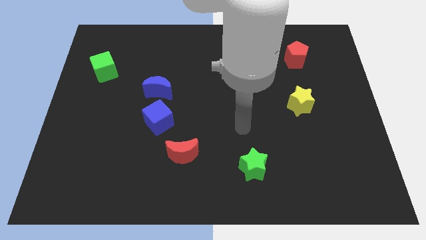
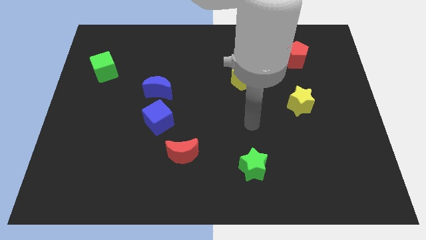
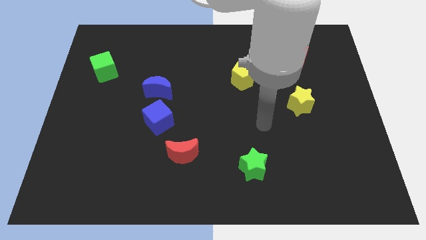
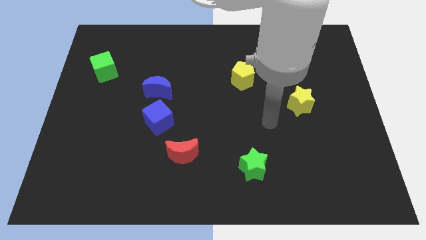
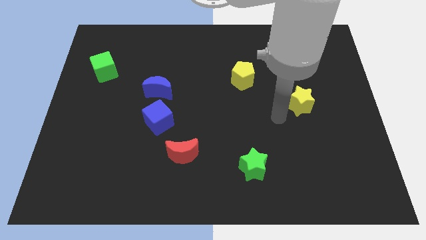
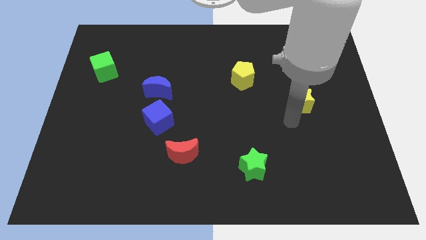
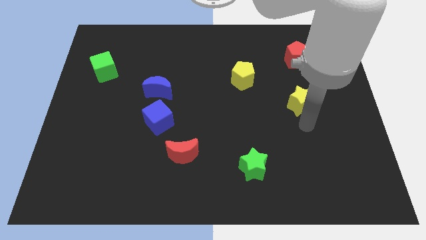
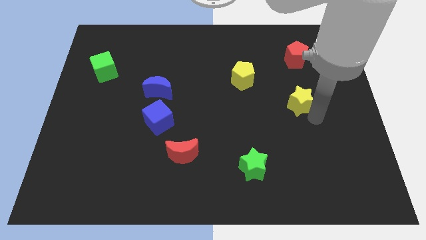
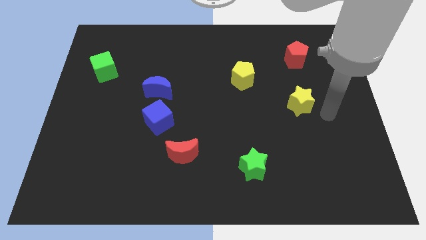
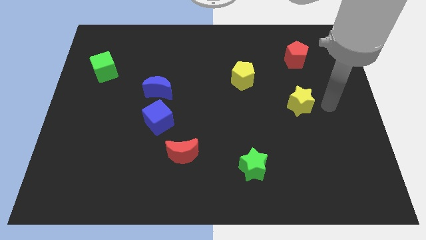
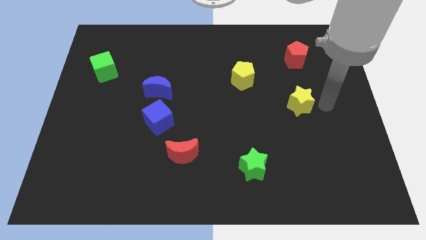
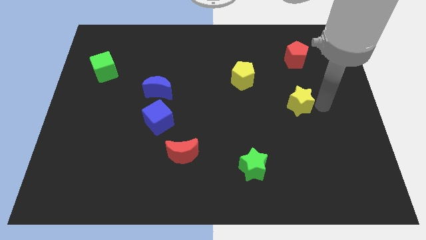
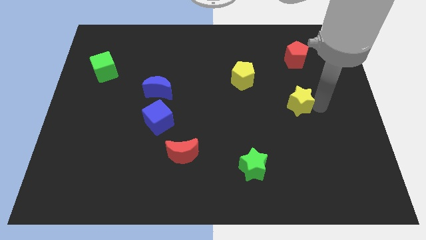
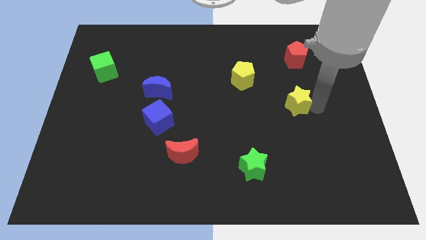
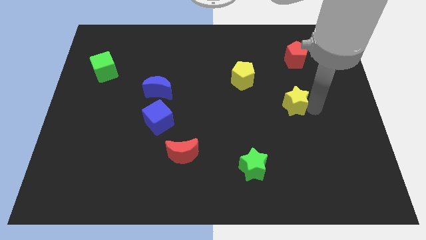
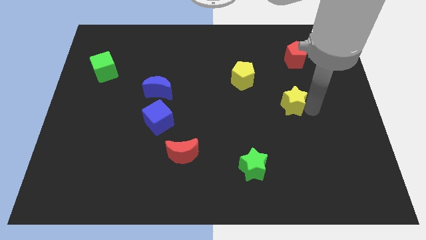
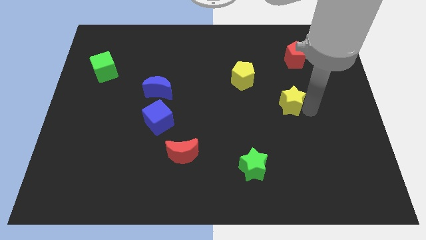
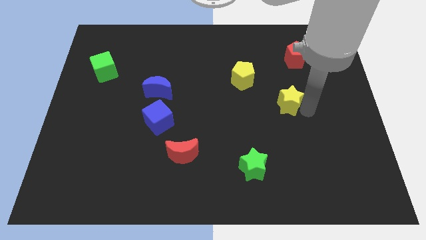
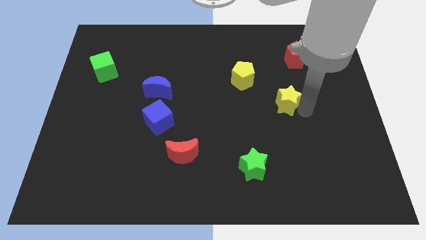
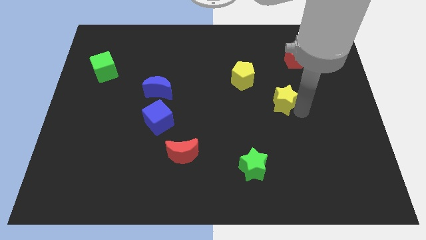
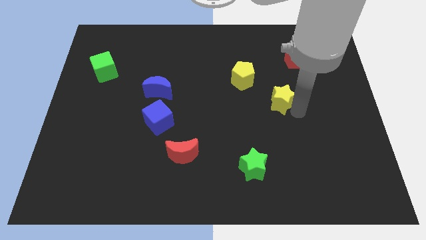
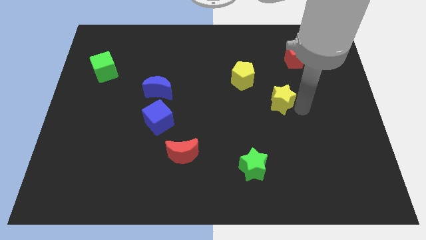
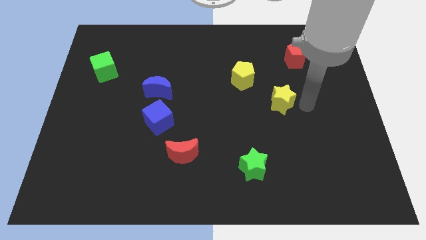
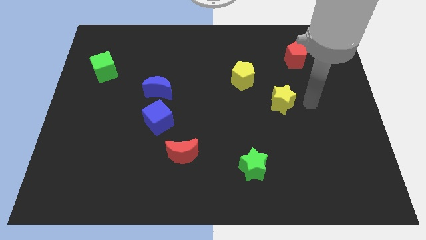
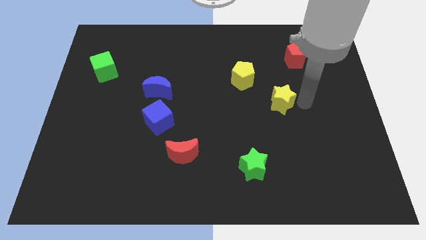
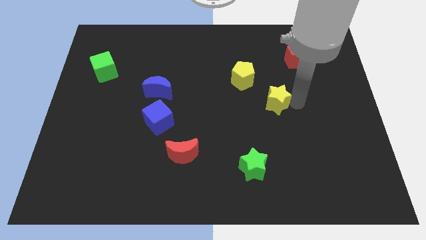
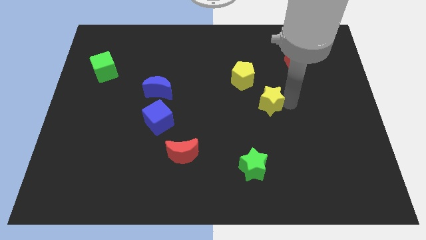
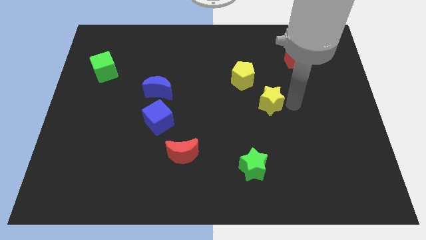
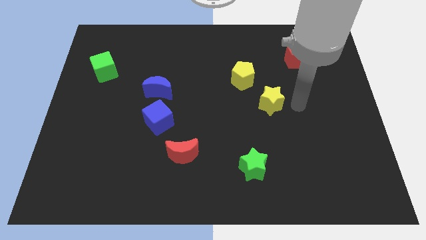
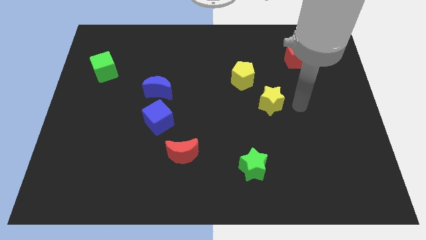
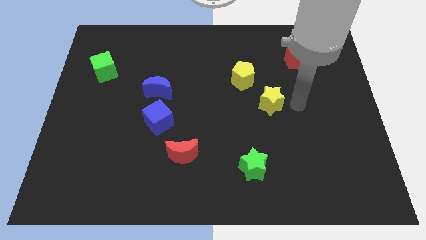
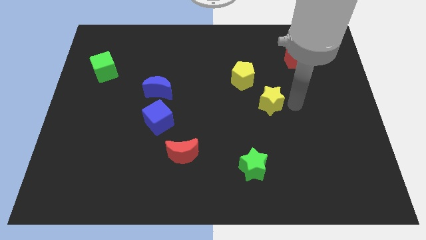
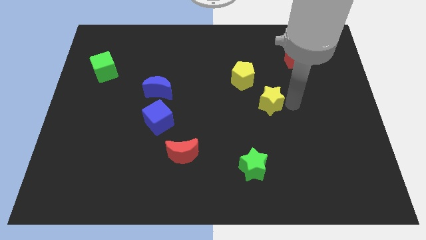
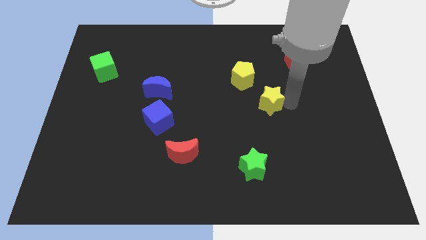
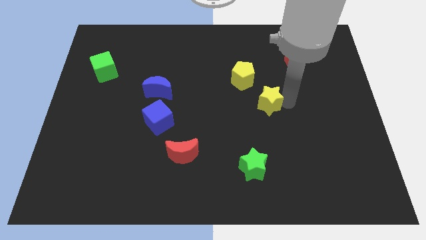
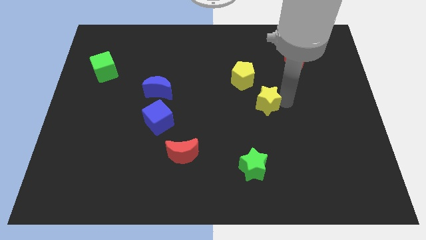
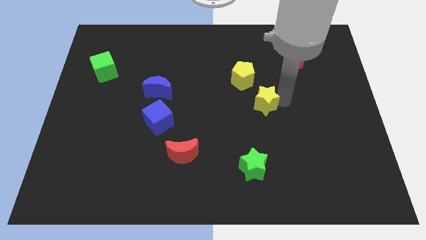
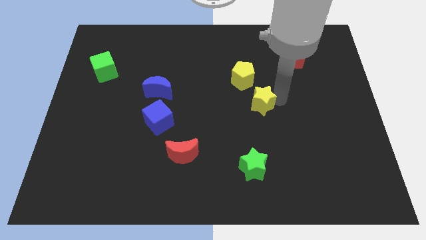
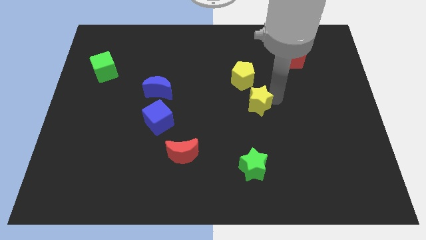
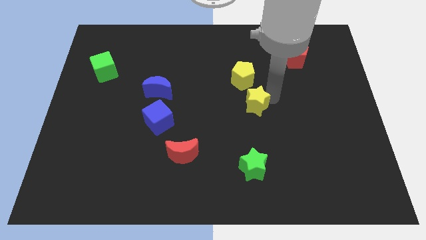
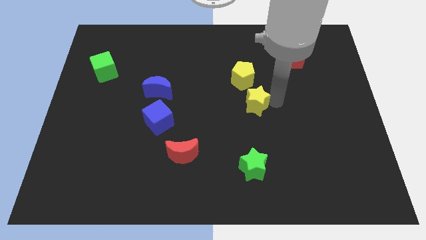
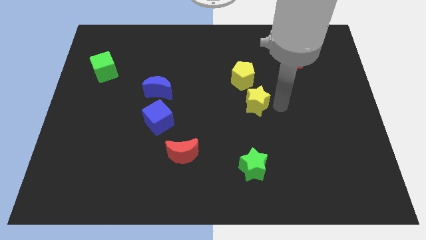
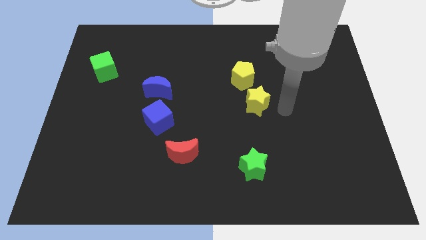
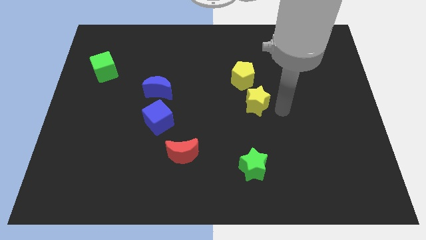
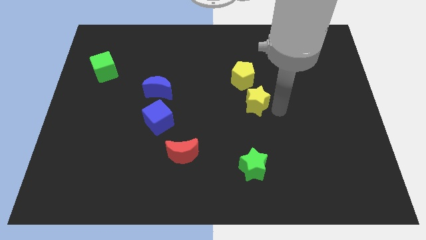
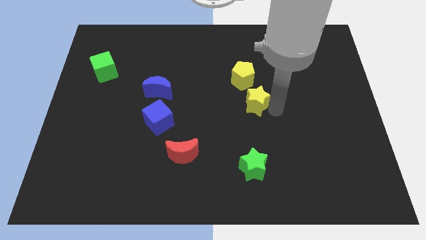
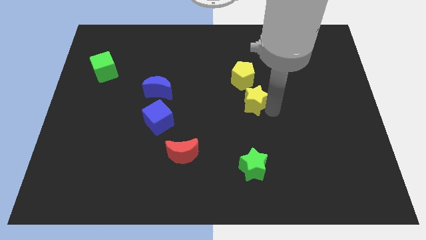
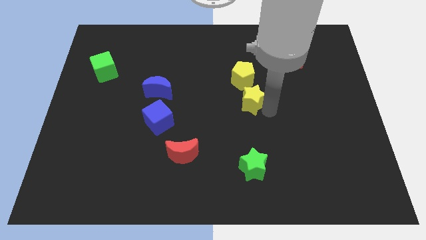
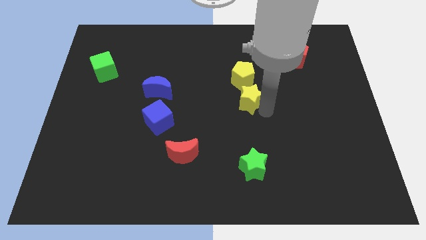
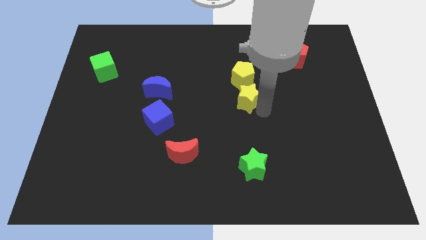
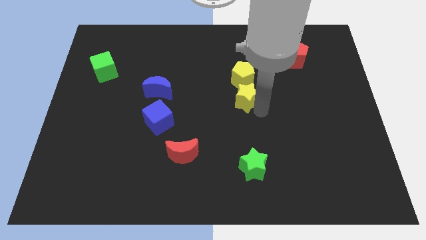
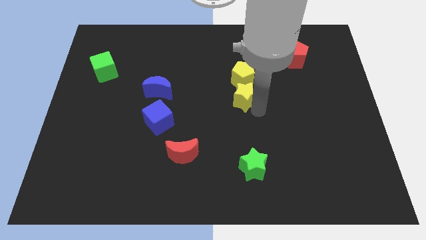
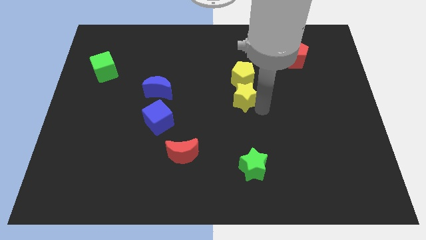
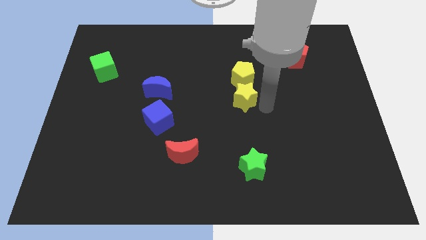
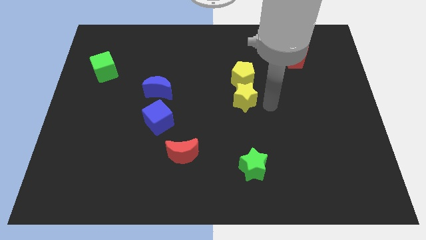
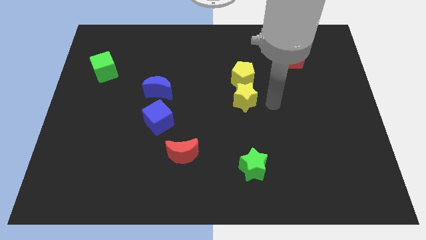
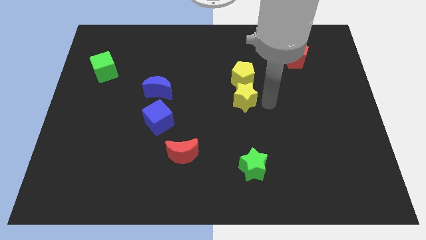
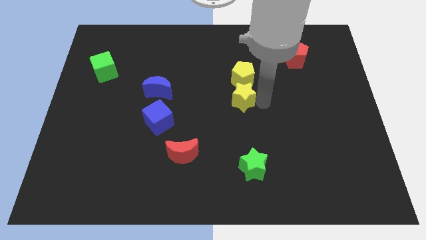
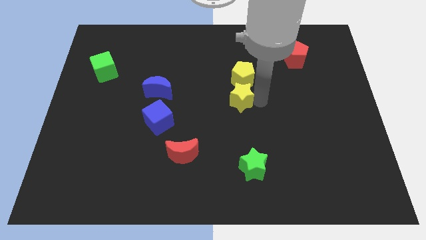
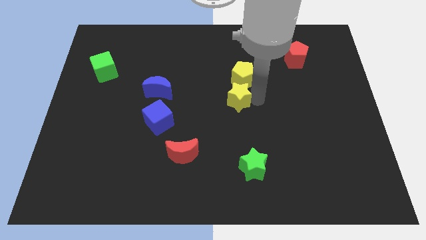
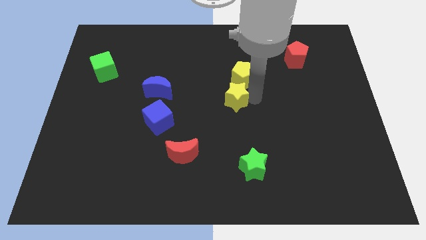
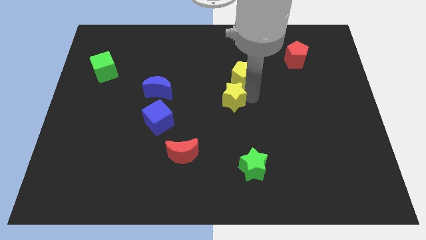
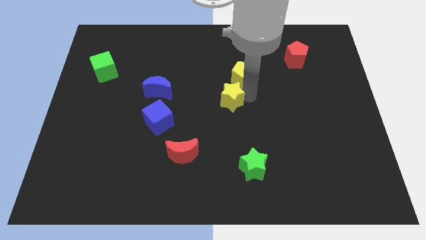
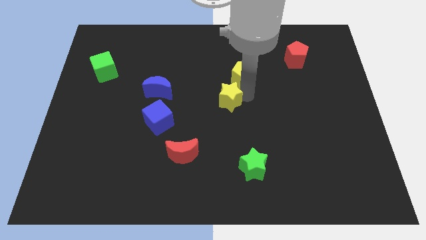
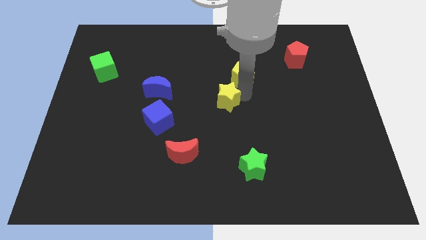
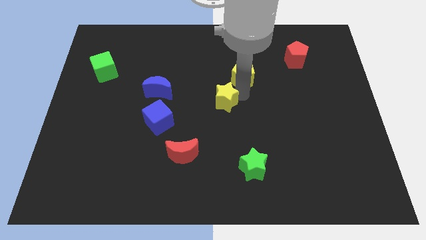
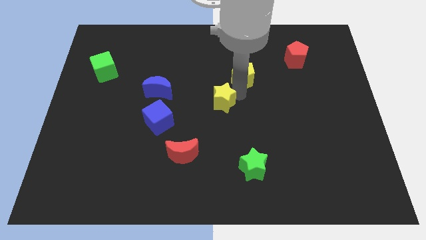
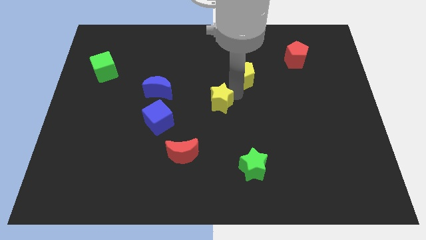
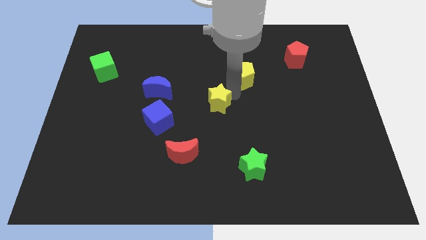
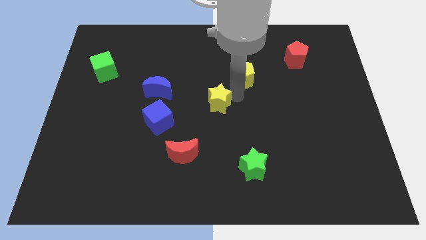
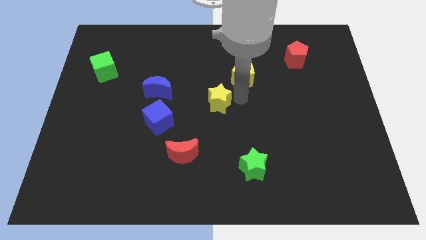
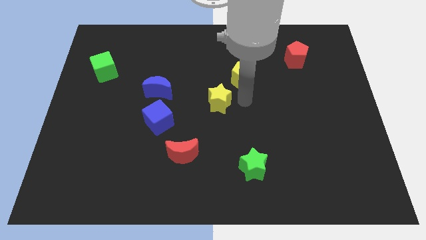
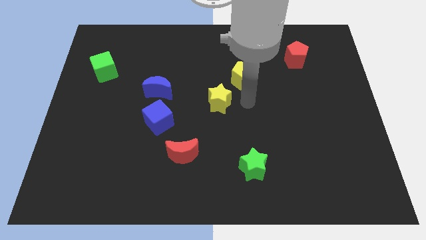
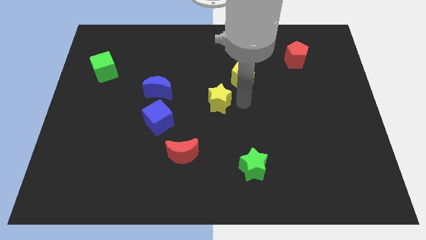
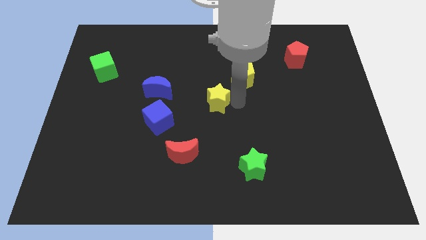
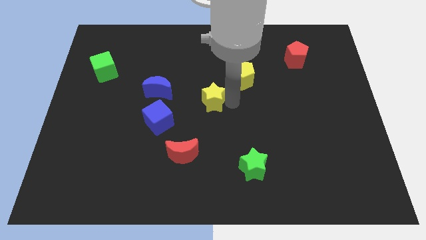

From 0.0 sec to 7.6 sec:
slide the yellow star to the left

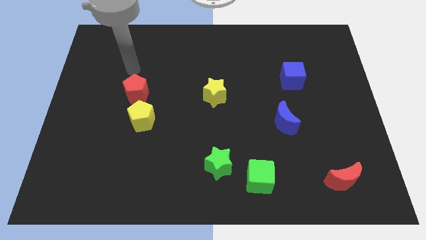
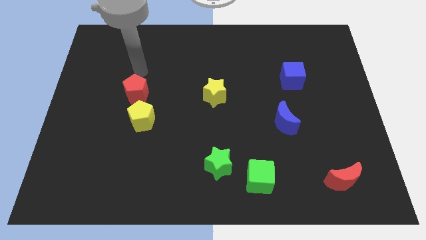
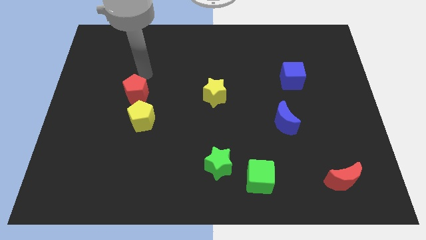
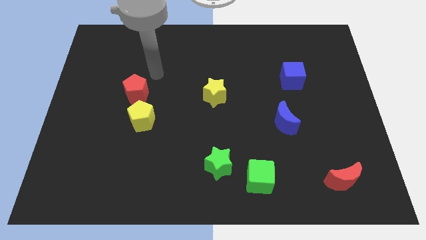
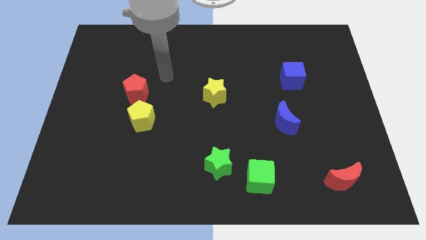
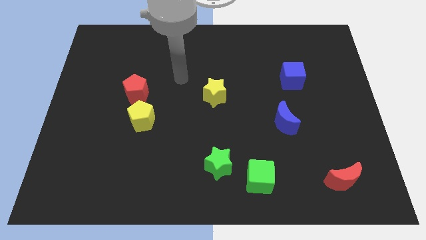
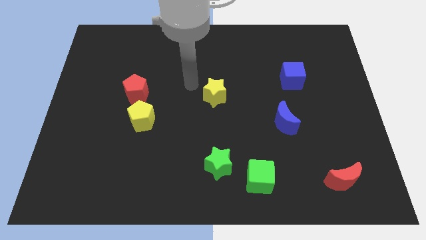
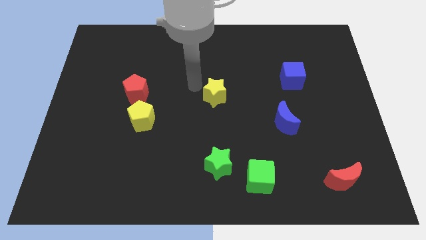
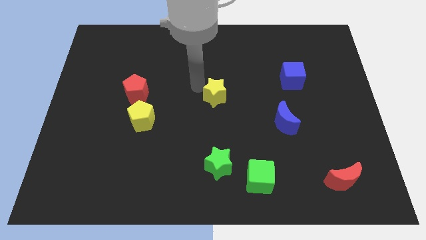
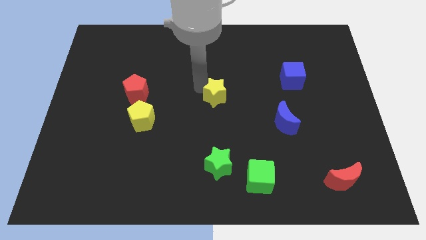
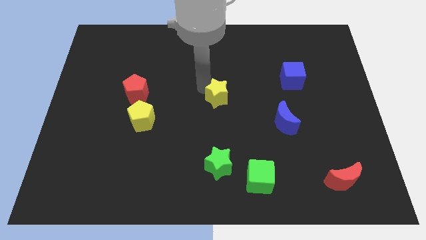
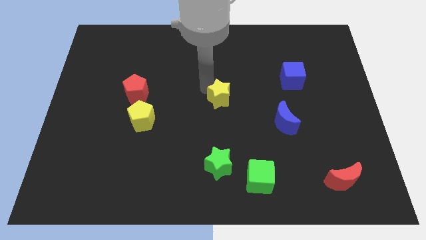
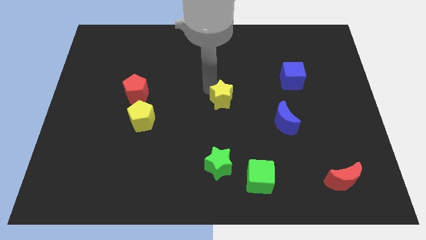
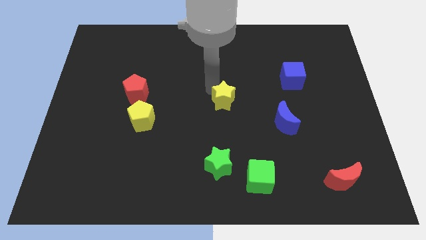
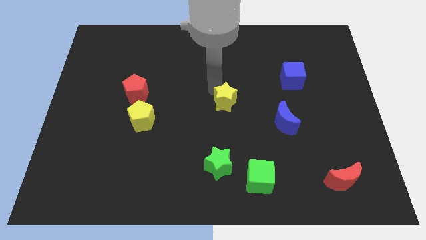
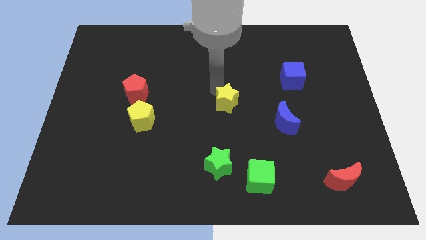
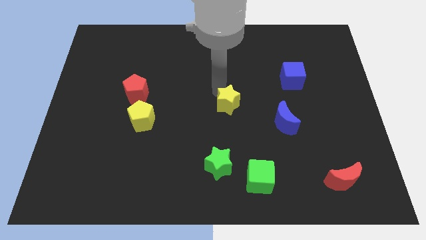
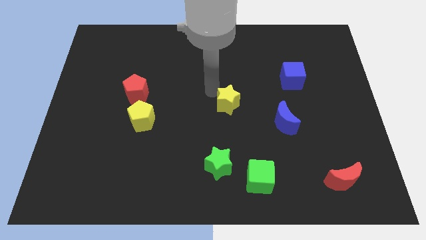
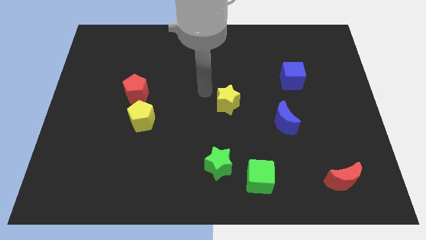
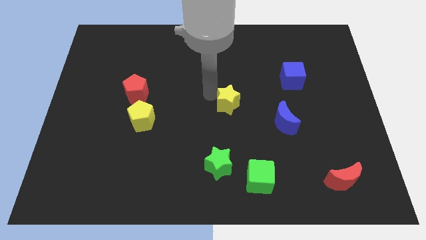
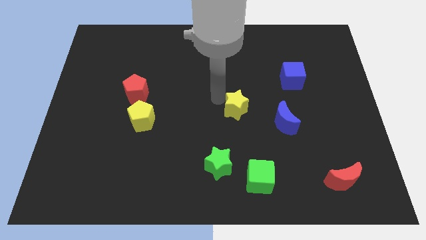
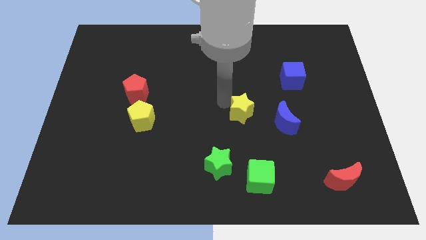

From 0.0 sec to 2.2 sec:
slightly slide the yellow star downwards and right
